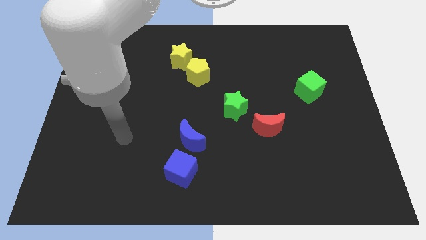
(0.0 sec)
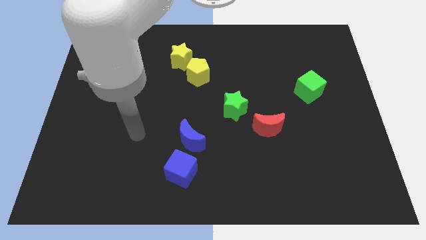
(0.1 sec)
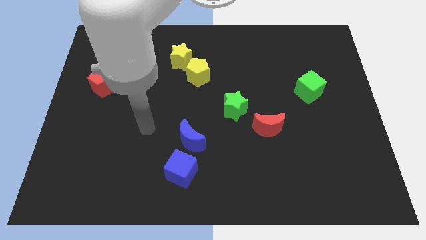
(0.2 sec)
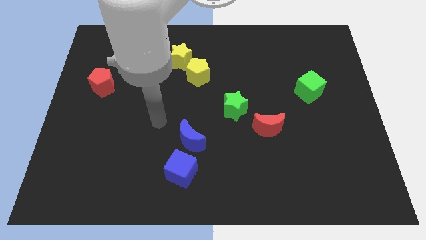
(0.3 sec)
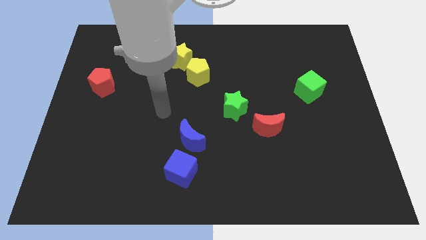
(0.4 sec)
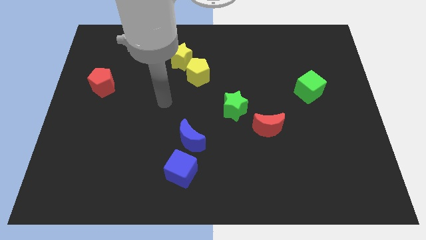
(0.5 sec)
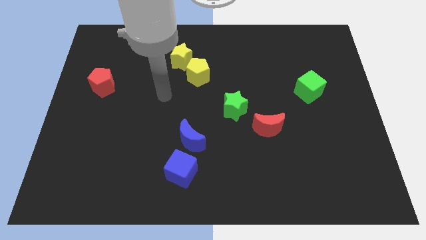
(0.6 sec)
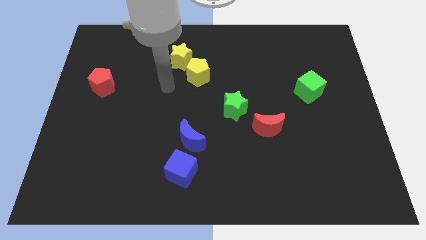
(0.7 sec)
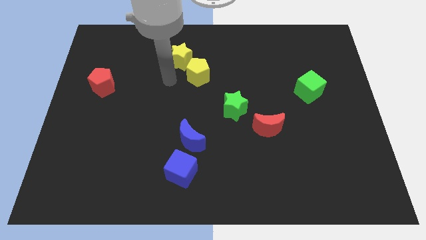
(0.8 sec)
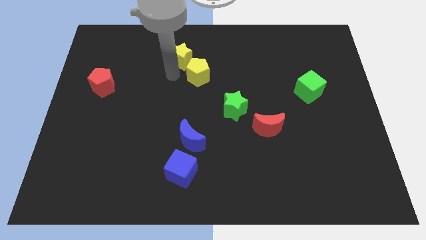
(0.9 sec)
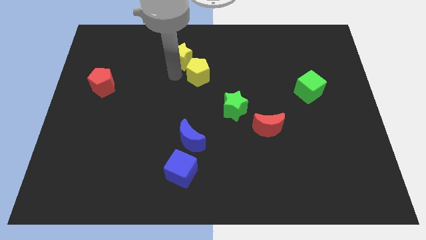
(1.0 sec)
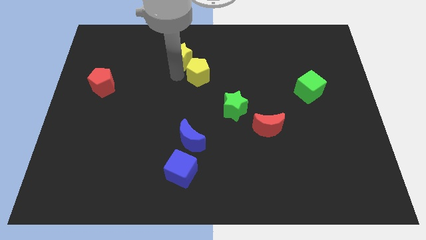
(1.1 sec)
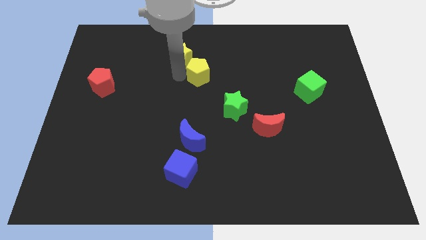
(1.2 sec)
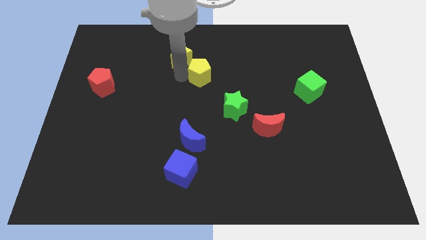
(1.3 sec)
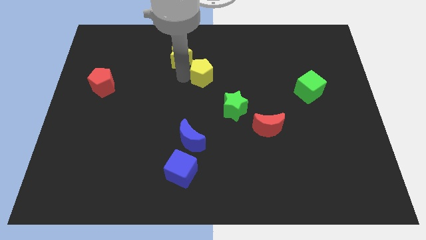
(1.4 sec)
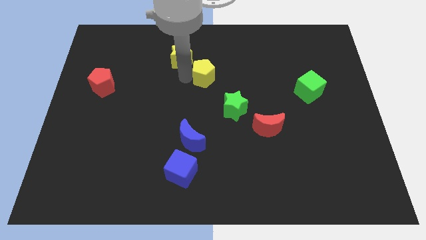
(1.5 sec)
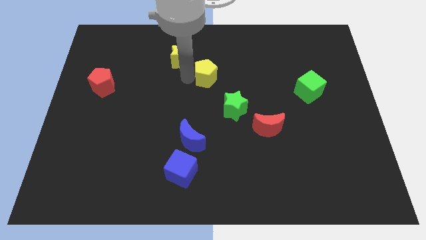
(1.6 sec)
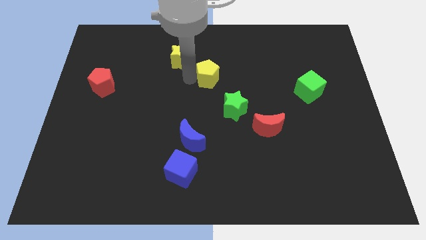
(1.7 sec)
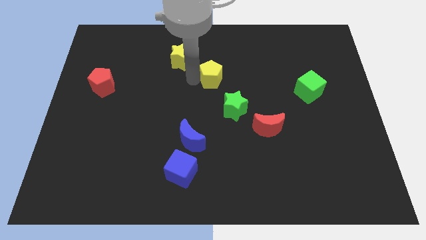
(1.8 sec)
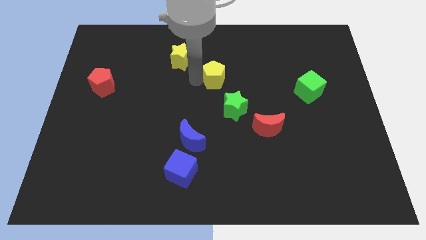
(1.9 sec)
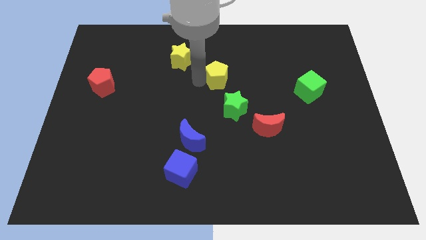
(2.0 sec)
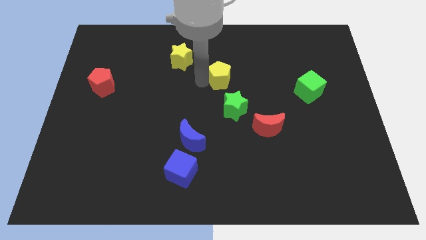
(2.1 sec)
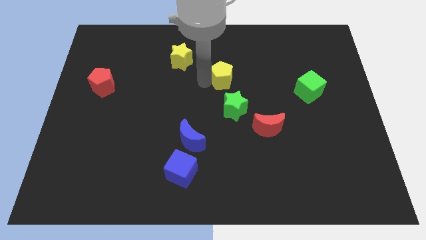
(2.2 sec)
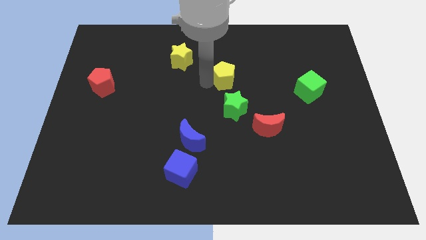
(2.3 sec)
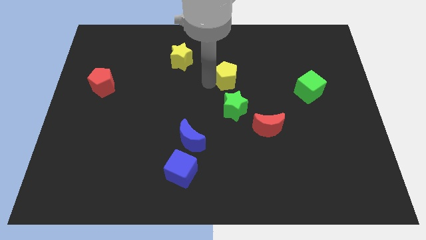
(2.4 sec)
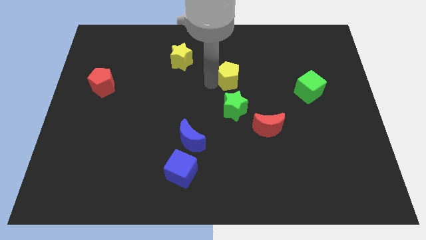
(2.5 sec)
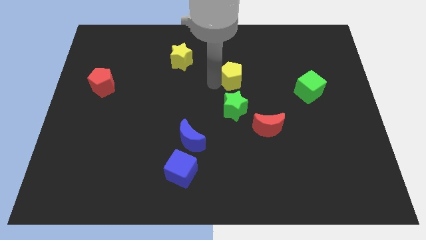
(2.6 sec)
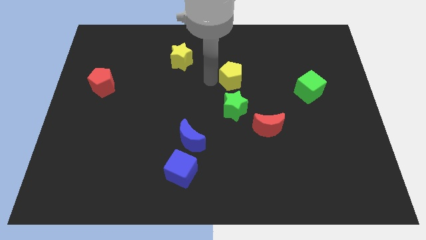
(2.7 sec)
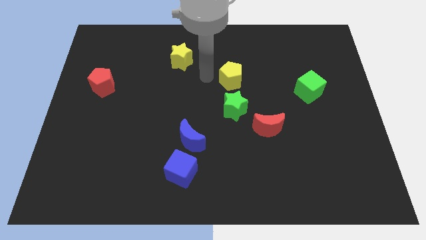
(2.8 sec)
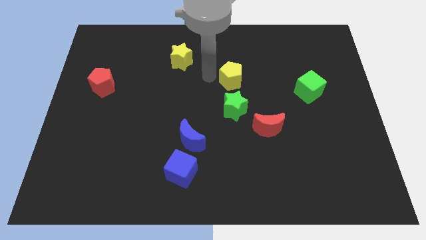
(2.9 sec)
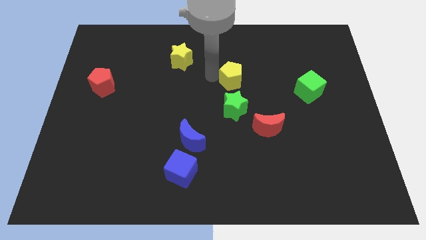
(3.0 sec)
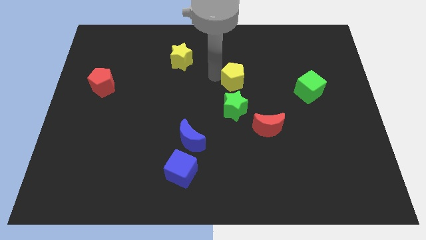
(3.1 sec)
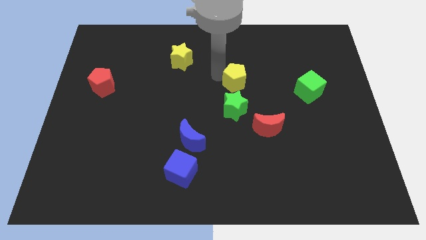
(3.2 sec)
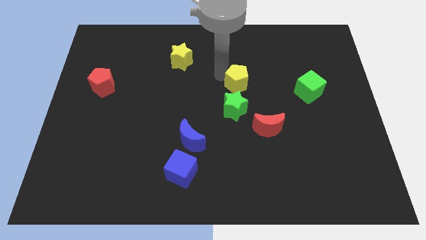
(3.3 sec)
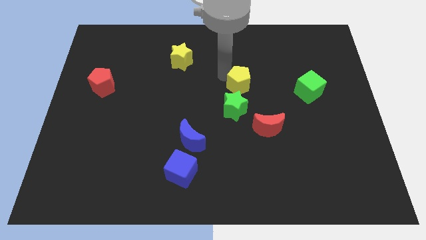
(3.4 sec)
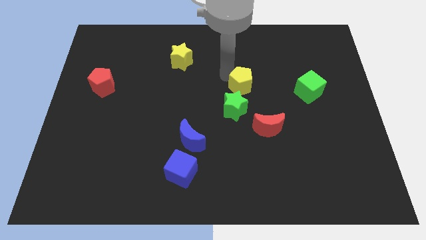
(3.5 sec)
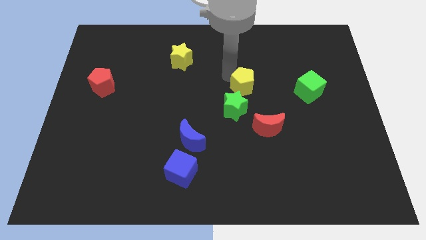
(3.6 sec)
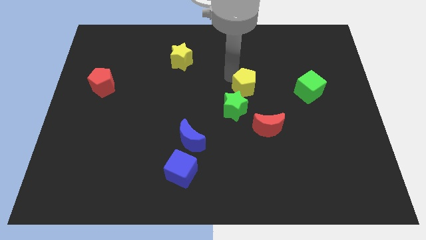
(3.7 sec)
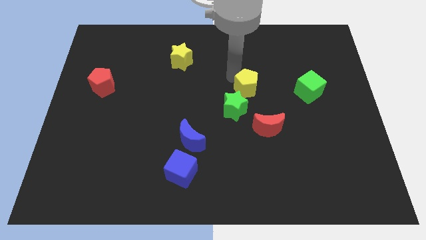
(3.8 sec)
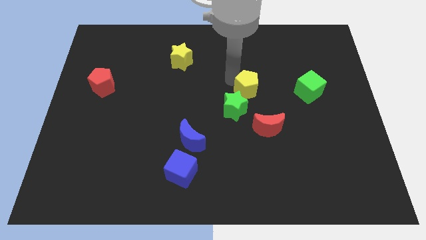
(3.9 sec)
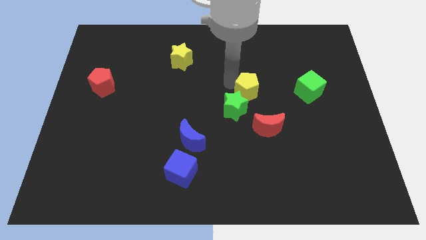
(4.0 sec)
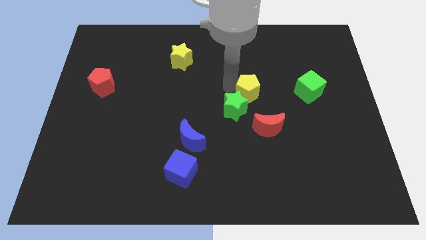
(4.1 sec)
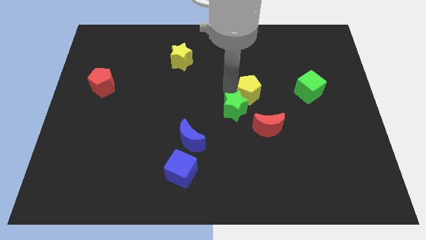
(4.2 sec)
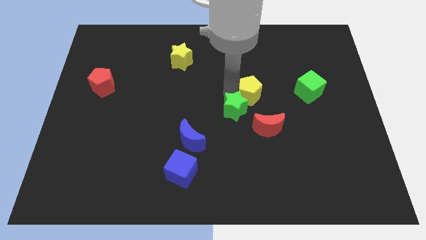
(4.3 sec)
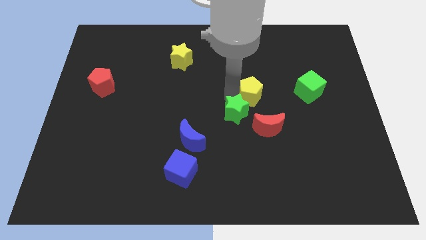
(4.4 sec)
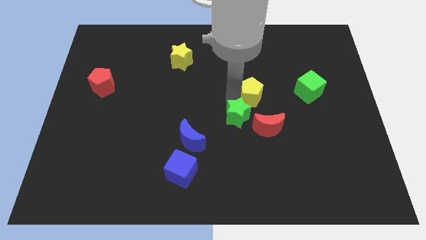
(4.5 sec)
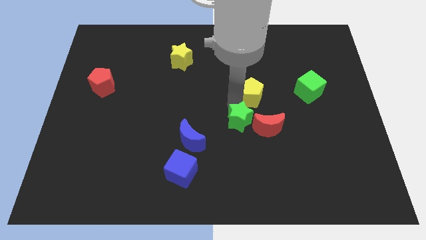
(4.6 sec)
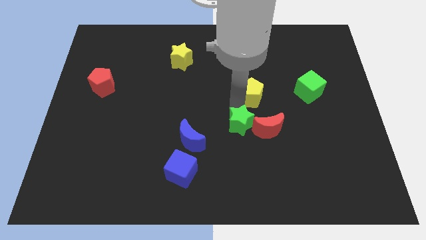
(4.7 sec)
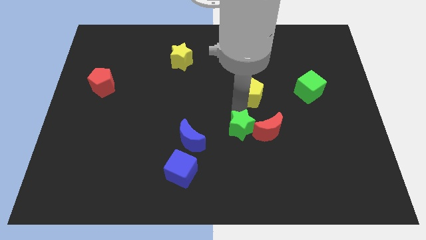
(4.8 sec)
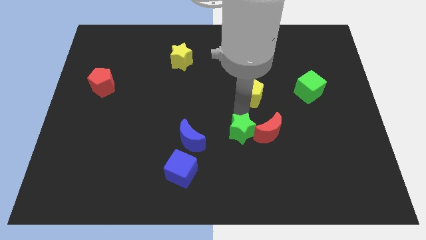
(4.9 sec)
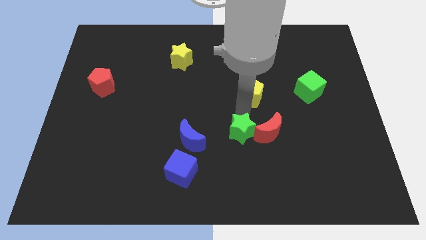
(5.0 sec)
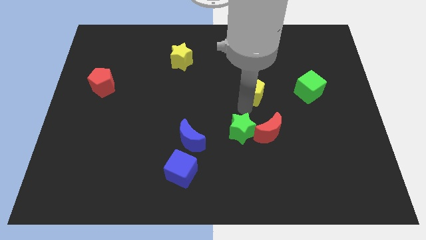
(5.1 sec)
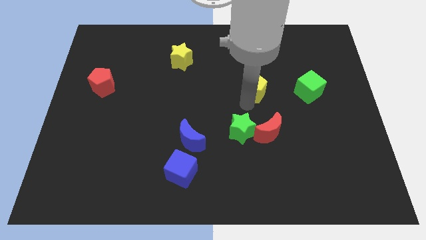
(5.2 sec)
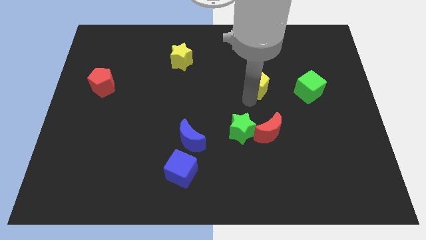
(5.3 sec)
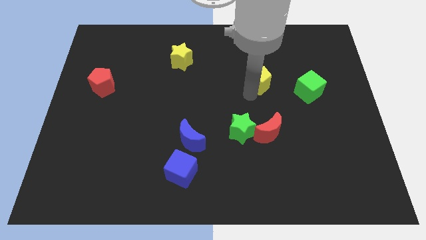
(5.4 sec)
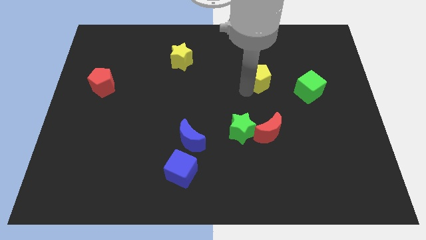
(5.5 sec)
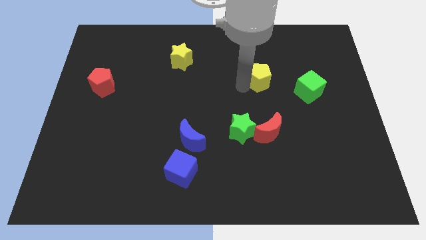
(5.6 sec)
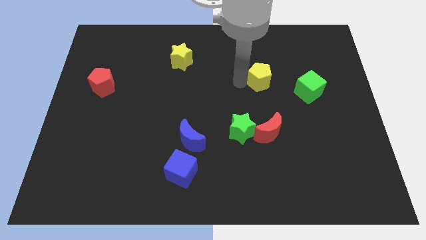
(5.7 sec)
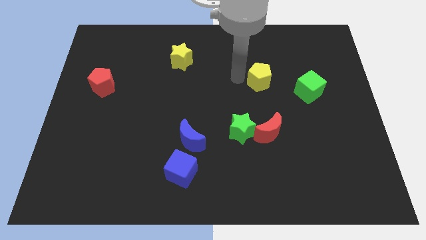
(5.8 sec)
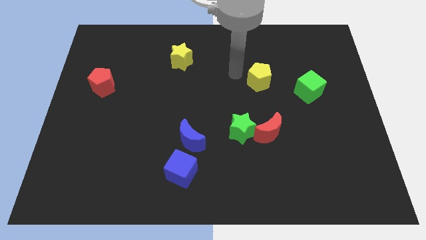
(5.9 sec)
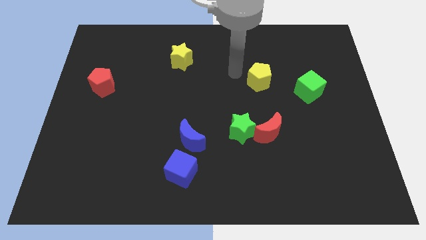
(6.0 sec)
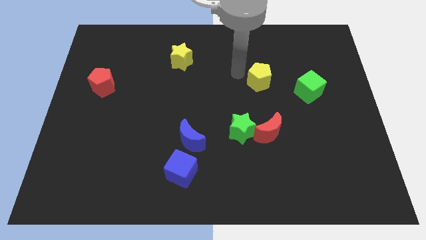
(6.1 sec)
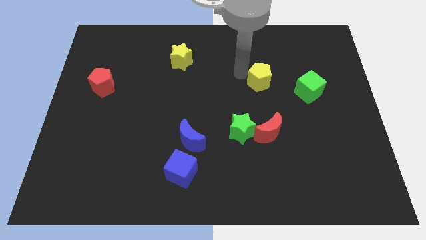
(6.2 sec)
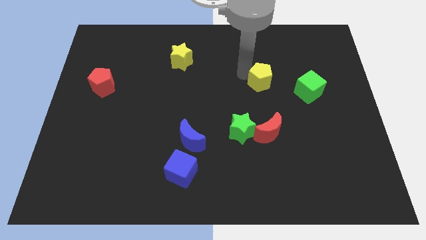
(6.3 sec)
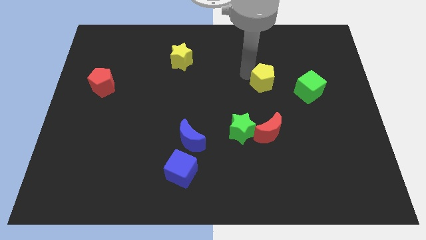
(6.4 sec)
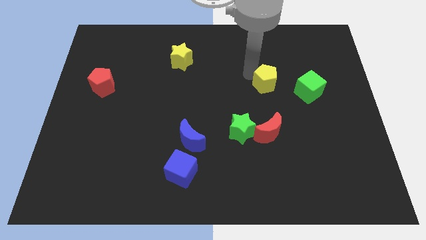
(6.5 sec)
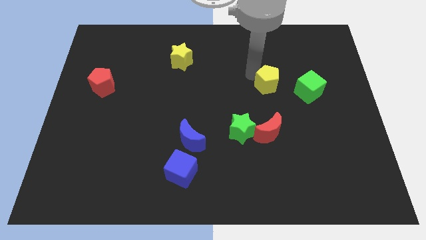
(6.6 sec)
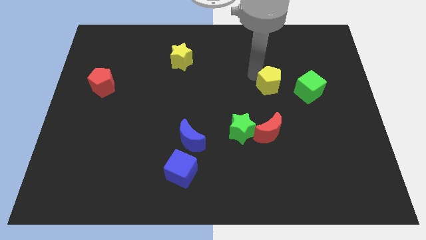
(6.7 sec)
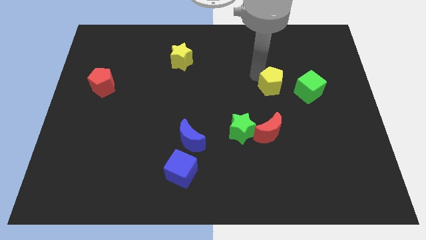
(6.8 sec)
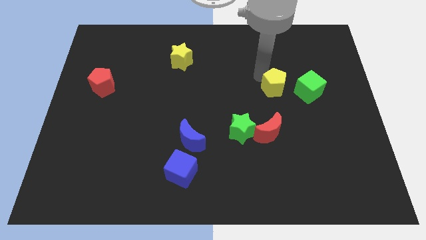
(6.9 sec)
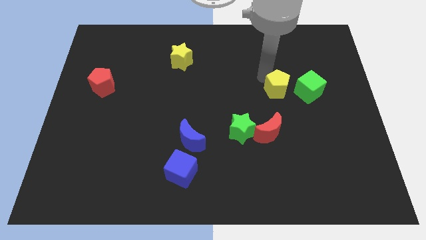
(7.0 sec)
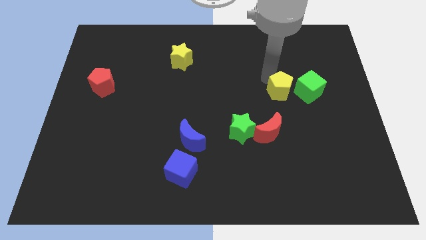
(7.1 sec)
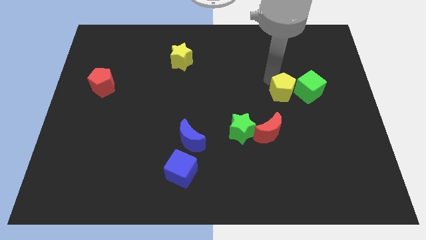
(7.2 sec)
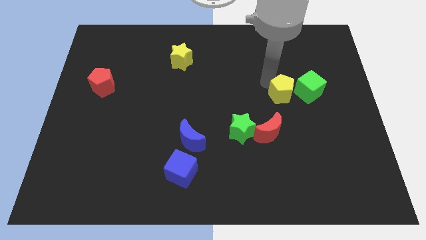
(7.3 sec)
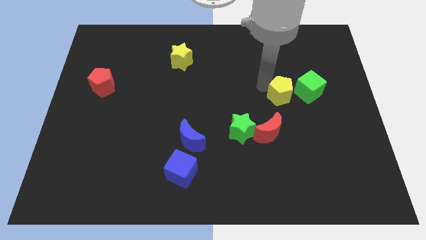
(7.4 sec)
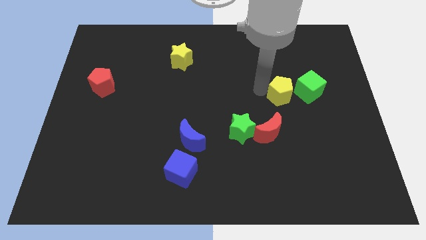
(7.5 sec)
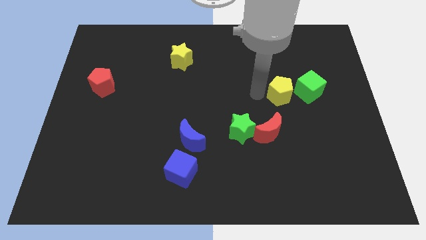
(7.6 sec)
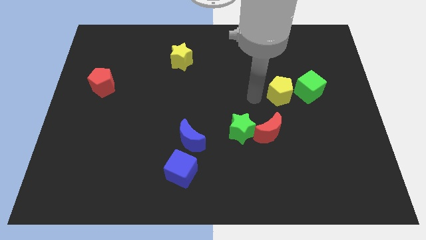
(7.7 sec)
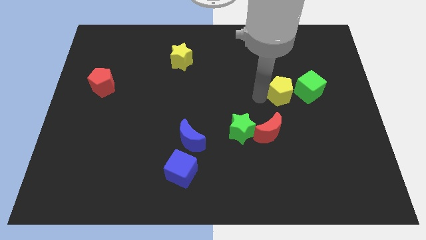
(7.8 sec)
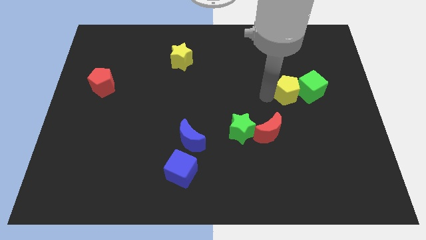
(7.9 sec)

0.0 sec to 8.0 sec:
slide the yellow pentagon towards the green cube
